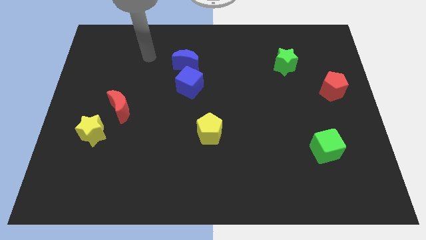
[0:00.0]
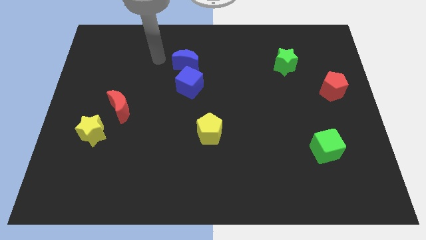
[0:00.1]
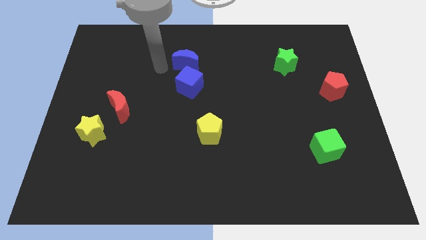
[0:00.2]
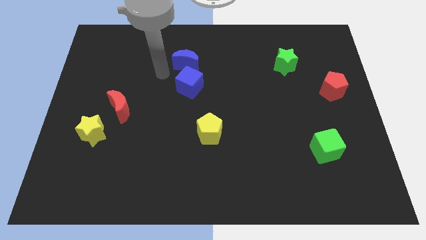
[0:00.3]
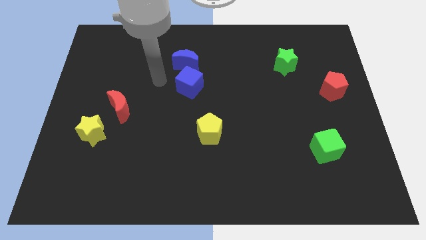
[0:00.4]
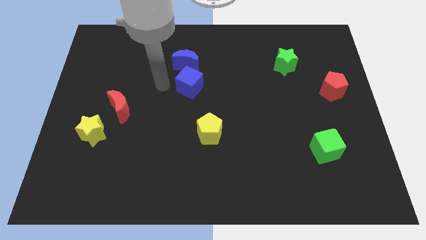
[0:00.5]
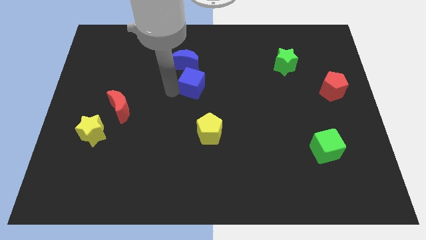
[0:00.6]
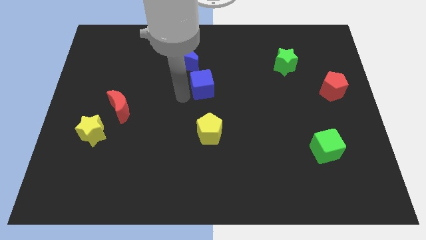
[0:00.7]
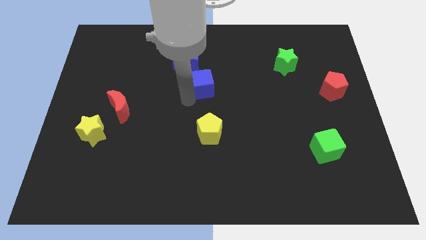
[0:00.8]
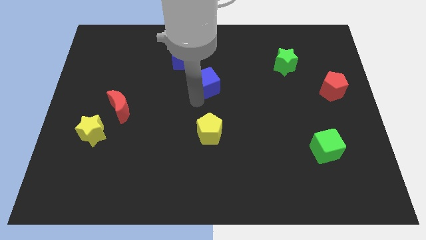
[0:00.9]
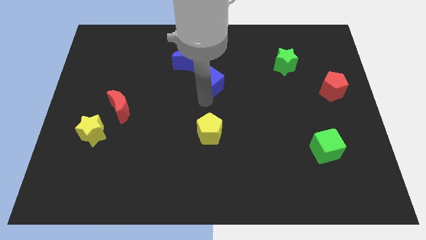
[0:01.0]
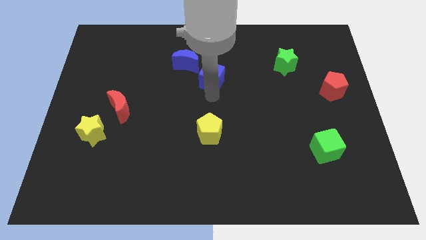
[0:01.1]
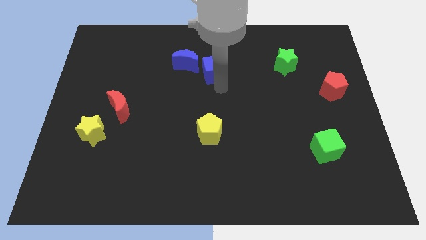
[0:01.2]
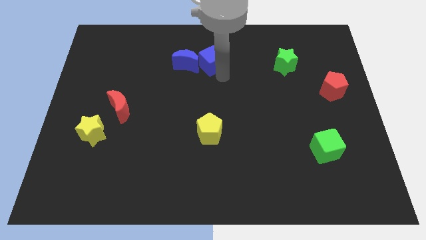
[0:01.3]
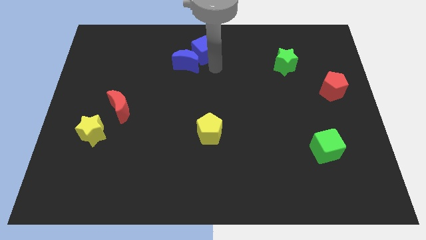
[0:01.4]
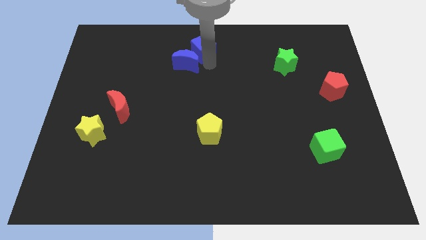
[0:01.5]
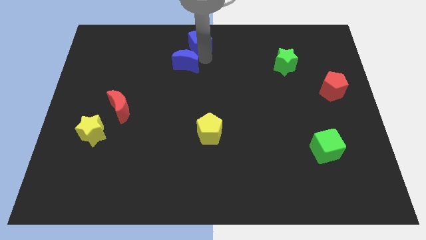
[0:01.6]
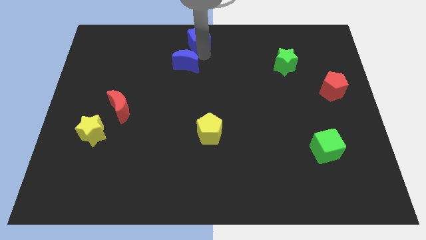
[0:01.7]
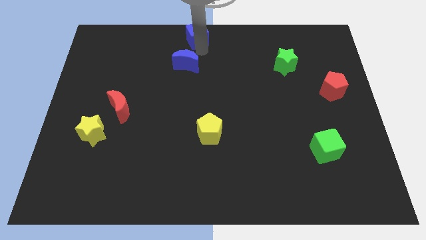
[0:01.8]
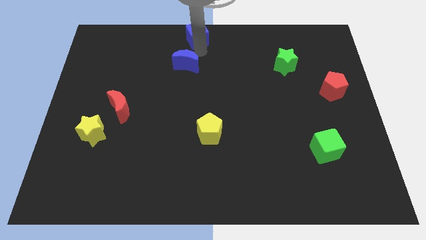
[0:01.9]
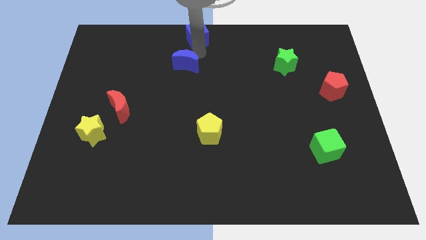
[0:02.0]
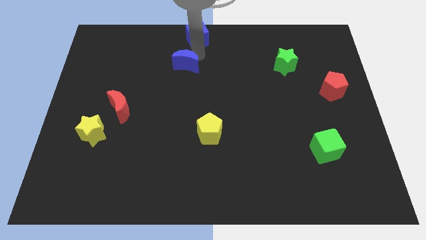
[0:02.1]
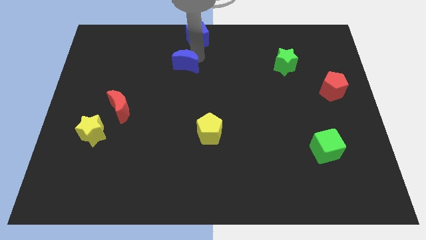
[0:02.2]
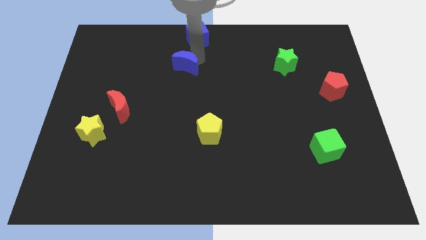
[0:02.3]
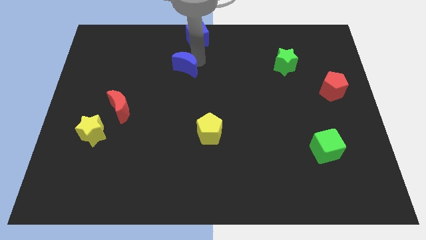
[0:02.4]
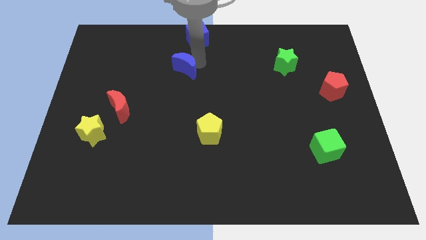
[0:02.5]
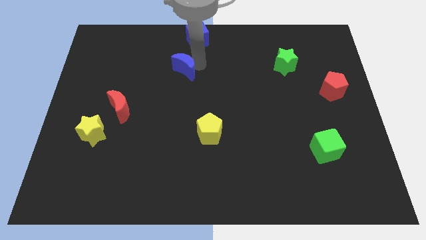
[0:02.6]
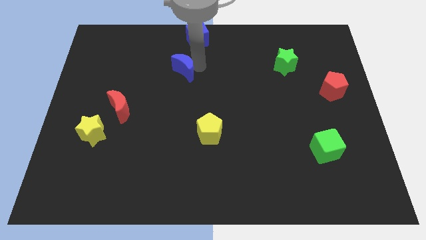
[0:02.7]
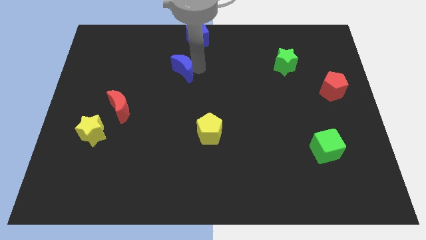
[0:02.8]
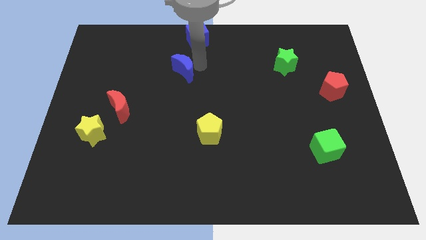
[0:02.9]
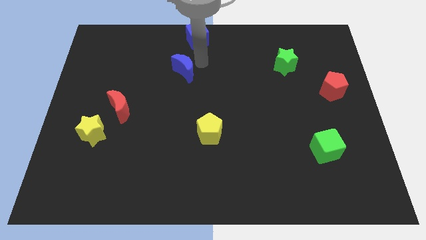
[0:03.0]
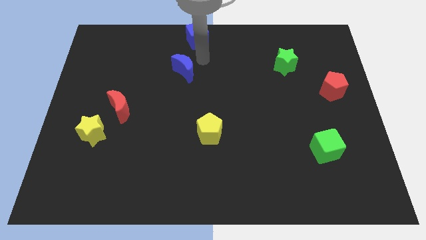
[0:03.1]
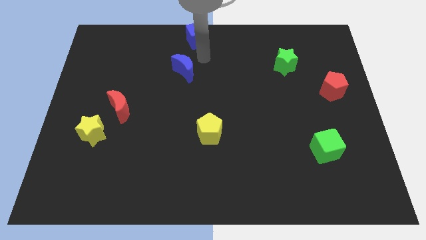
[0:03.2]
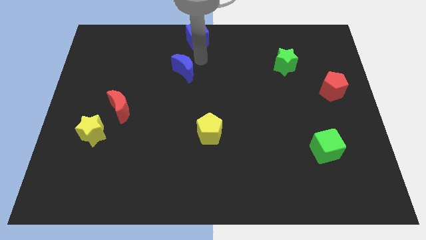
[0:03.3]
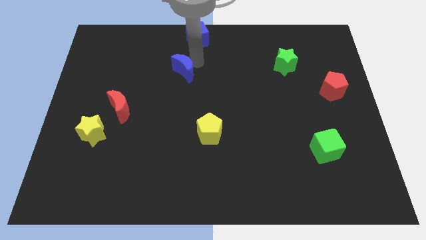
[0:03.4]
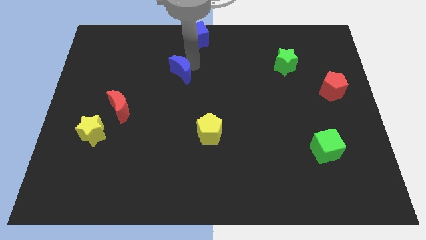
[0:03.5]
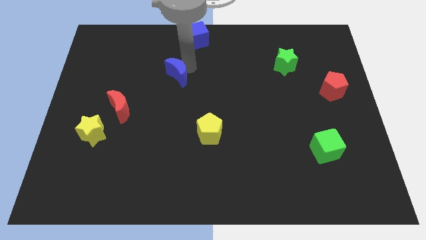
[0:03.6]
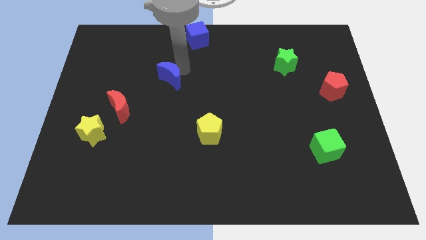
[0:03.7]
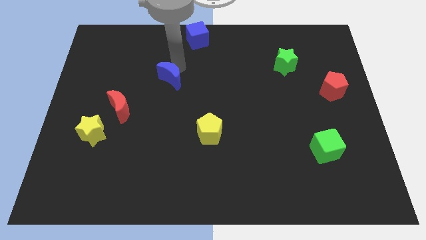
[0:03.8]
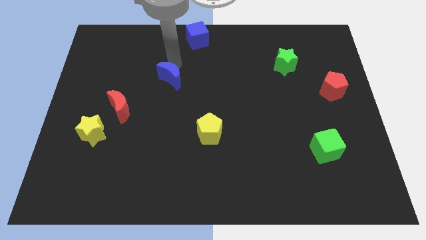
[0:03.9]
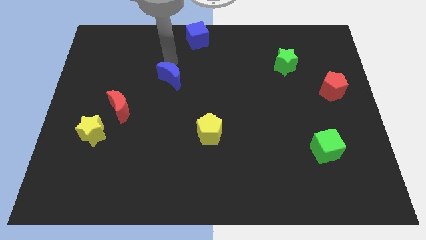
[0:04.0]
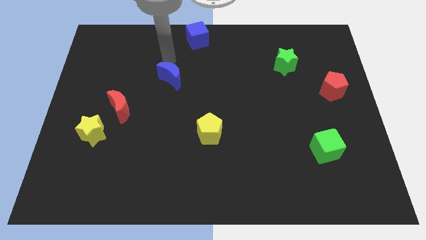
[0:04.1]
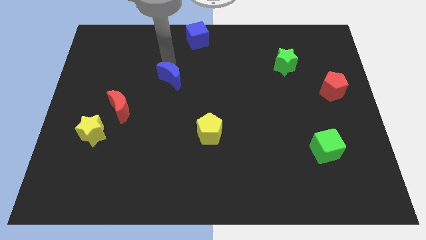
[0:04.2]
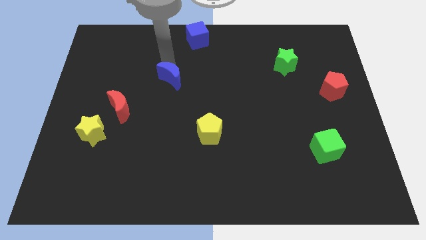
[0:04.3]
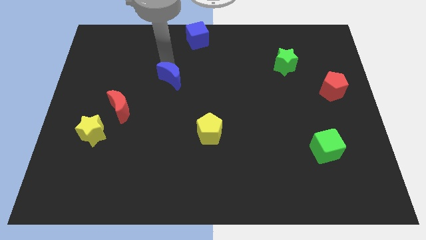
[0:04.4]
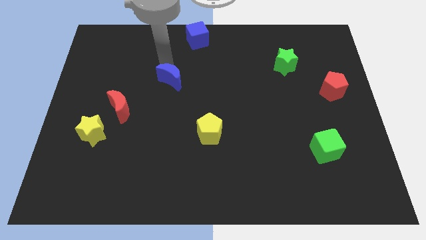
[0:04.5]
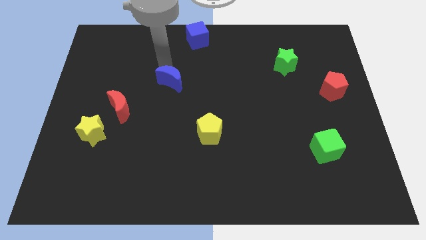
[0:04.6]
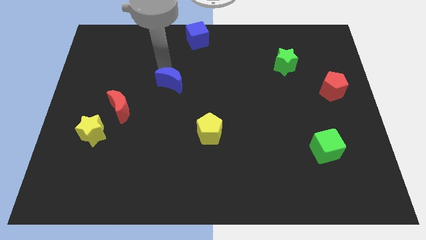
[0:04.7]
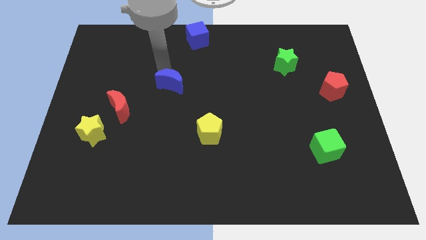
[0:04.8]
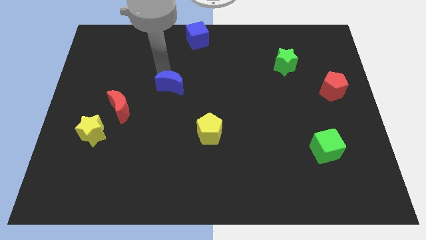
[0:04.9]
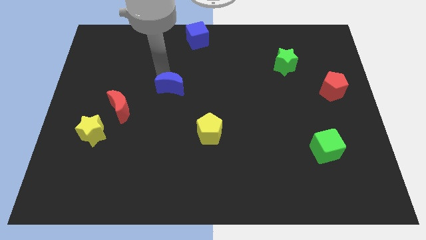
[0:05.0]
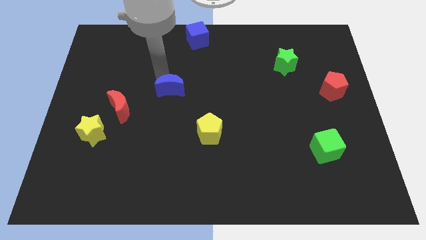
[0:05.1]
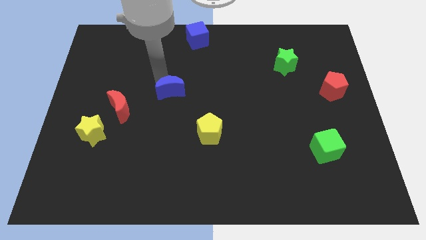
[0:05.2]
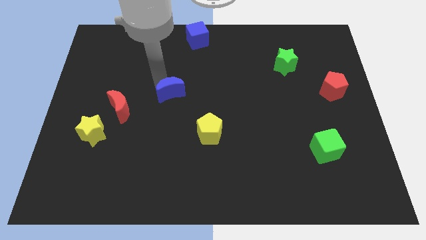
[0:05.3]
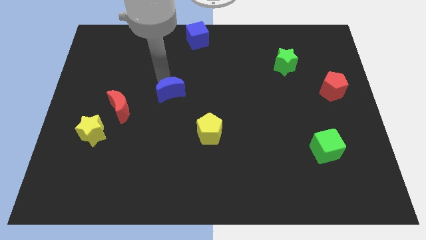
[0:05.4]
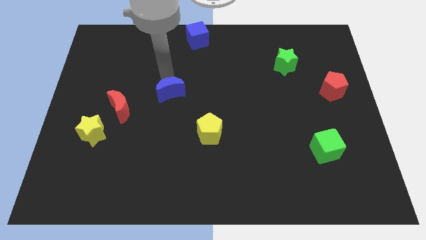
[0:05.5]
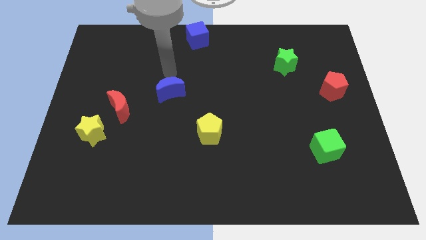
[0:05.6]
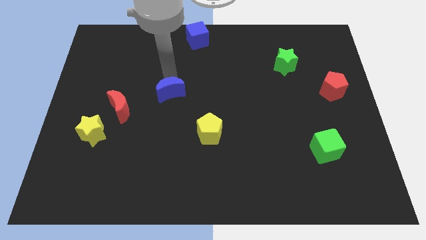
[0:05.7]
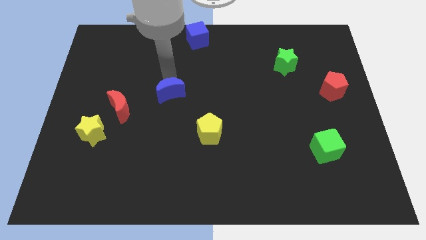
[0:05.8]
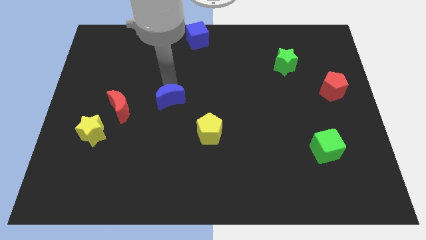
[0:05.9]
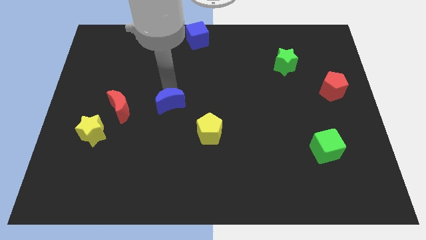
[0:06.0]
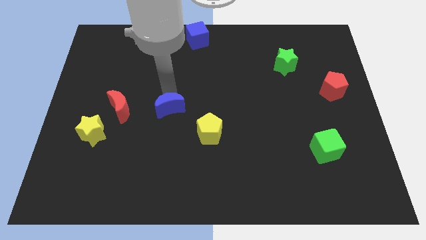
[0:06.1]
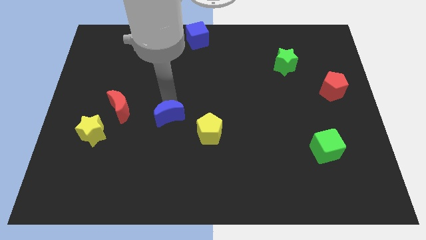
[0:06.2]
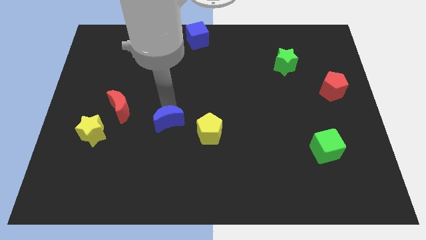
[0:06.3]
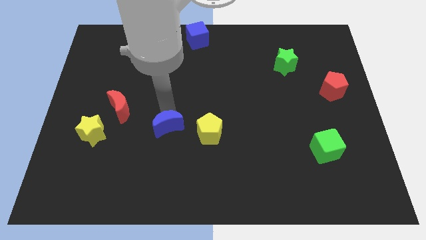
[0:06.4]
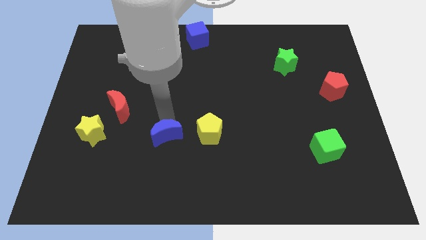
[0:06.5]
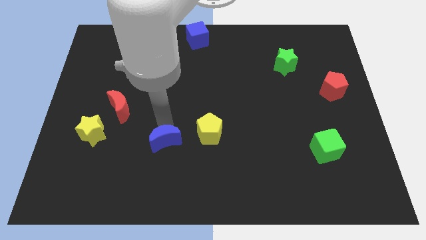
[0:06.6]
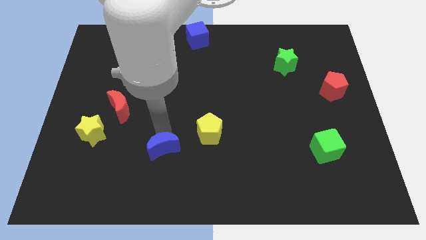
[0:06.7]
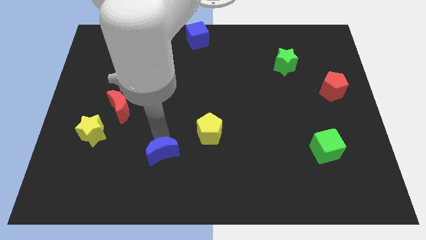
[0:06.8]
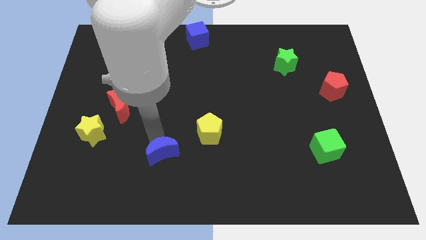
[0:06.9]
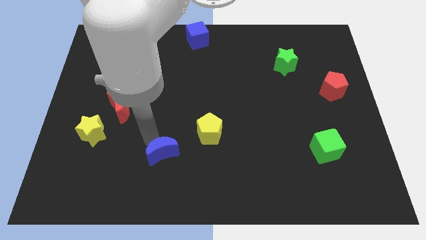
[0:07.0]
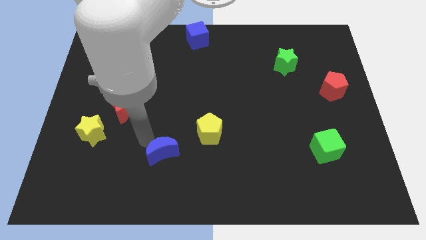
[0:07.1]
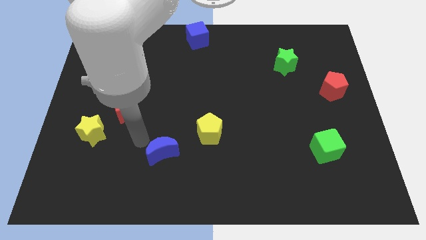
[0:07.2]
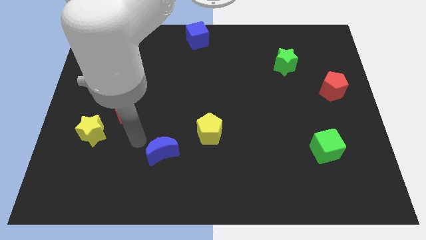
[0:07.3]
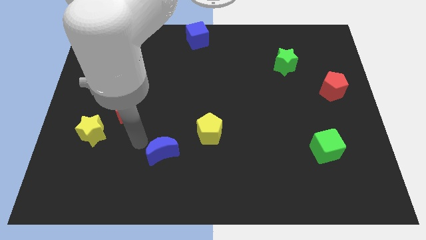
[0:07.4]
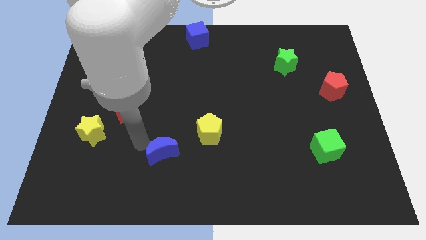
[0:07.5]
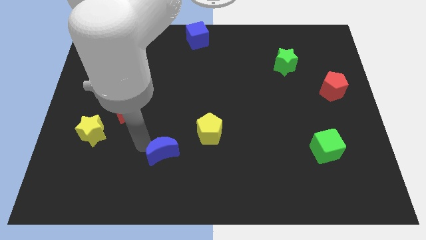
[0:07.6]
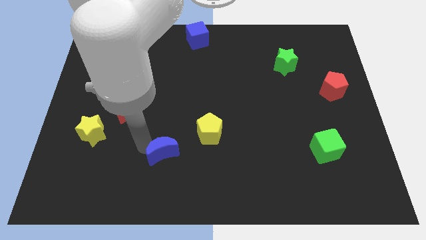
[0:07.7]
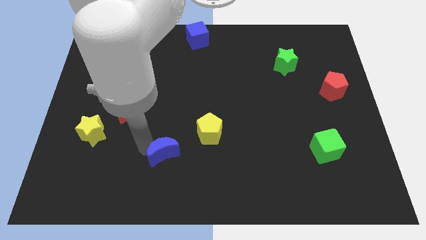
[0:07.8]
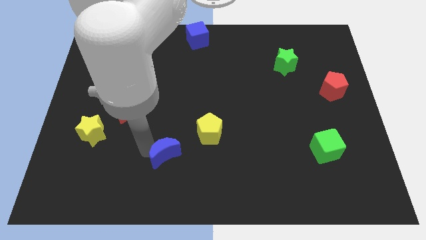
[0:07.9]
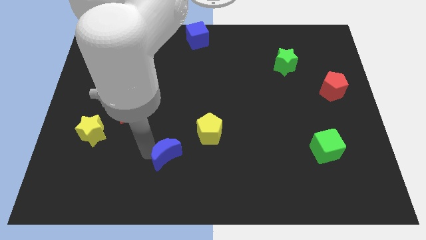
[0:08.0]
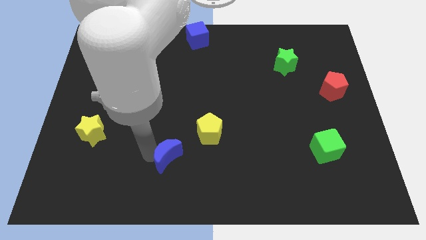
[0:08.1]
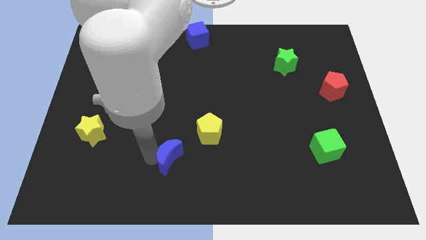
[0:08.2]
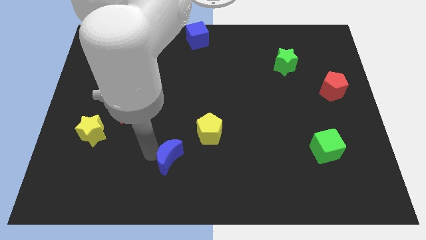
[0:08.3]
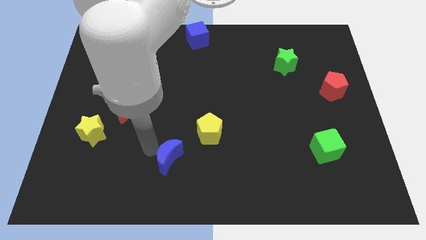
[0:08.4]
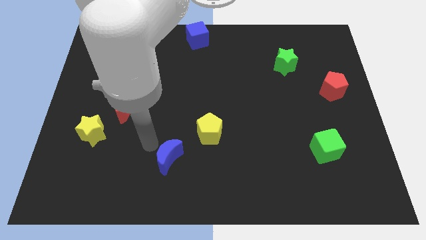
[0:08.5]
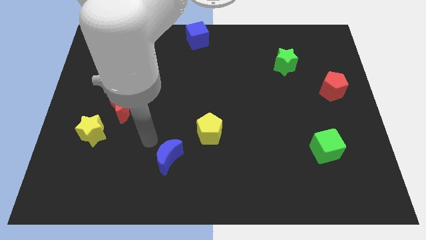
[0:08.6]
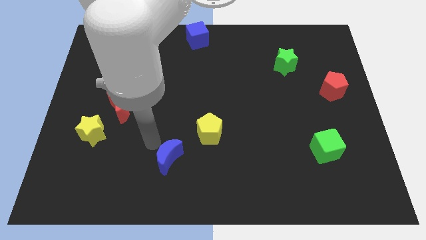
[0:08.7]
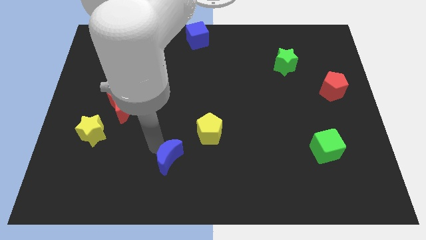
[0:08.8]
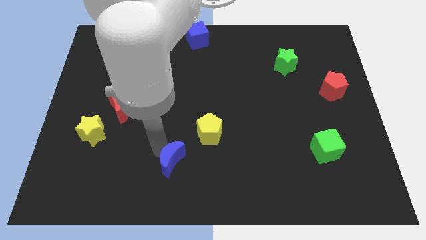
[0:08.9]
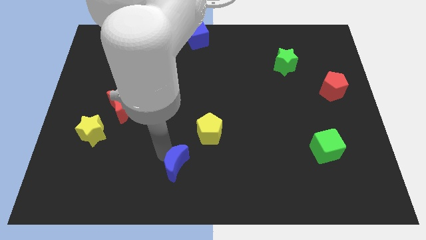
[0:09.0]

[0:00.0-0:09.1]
slide the blue moon to the bottom side
